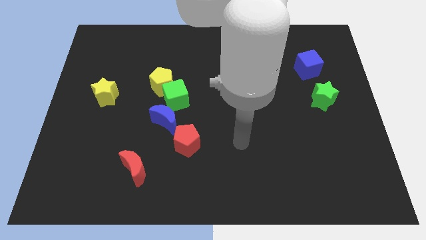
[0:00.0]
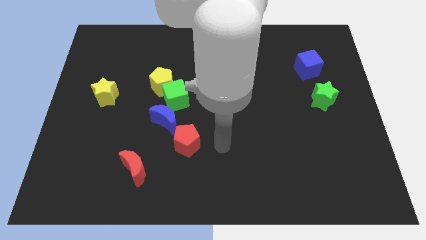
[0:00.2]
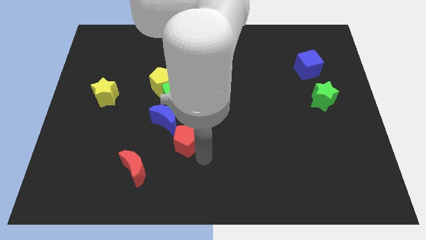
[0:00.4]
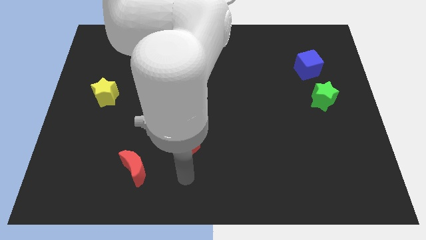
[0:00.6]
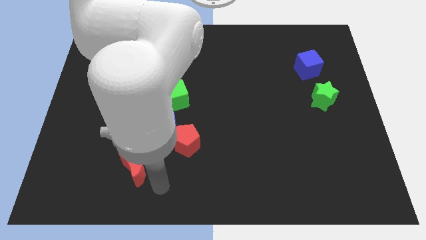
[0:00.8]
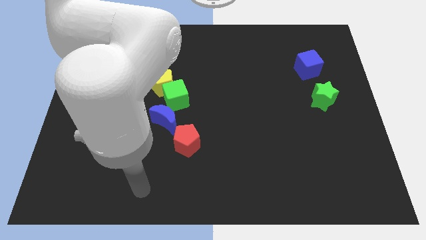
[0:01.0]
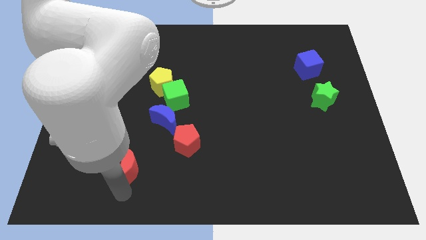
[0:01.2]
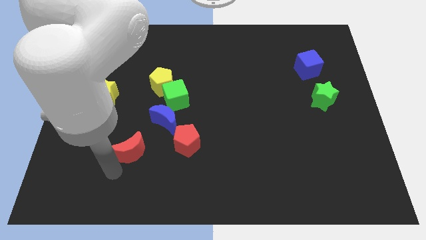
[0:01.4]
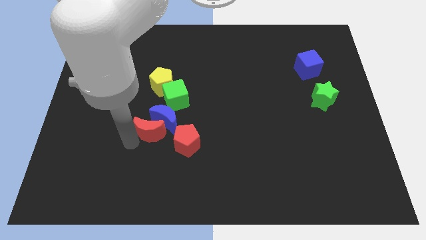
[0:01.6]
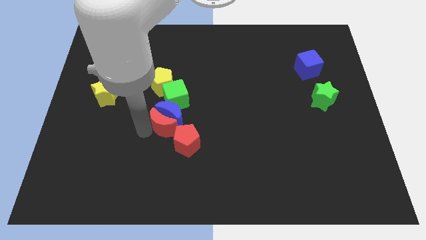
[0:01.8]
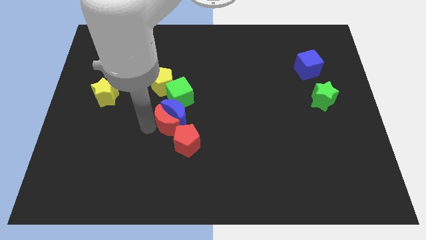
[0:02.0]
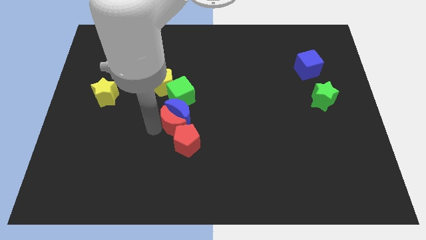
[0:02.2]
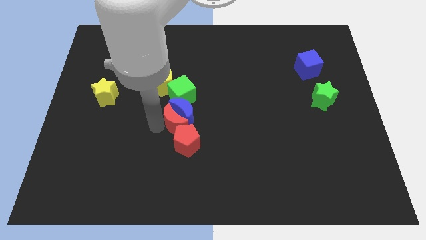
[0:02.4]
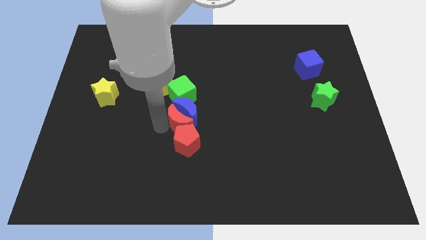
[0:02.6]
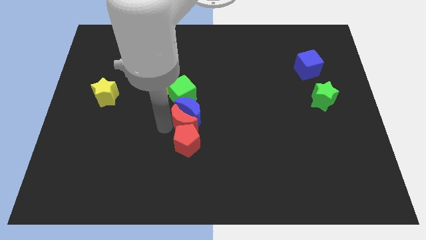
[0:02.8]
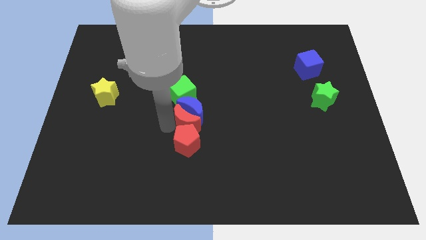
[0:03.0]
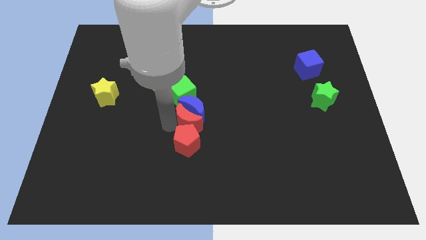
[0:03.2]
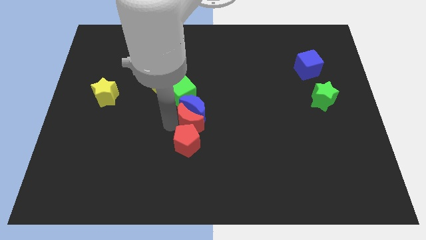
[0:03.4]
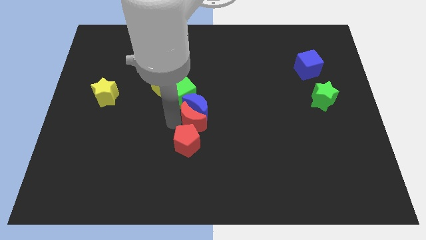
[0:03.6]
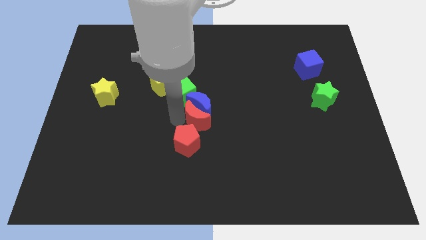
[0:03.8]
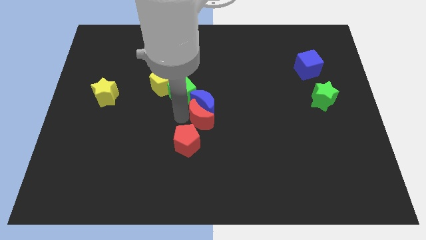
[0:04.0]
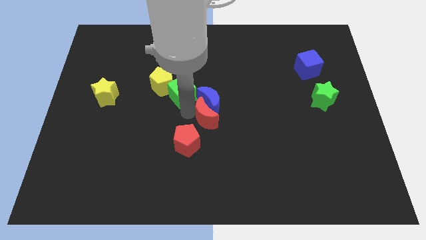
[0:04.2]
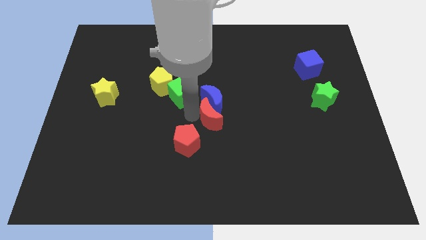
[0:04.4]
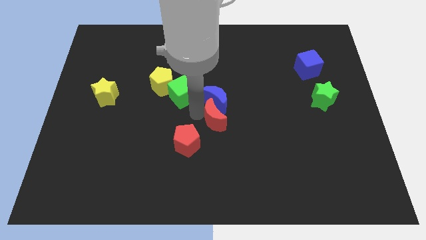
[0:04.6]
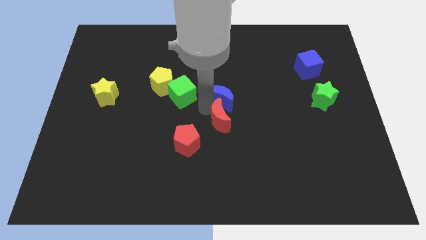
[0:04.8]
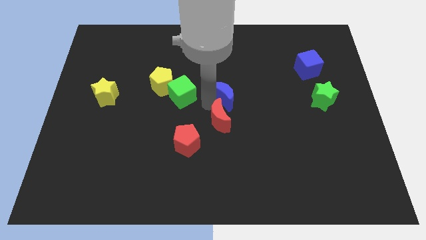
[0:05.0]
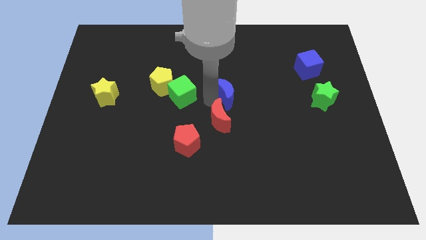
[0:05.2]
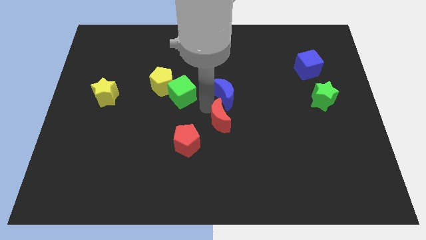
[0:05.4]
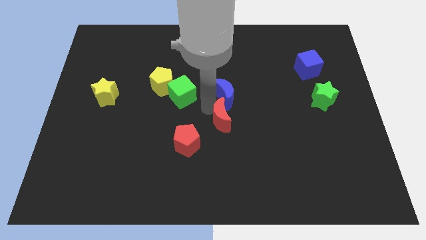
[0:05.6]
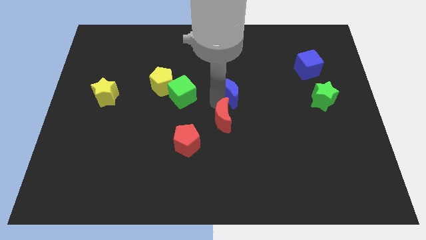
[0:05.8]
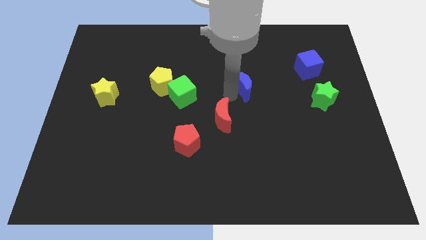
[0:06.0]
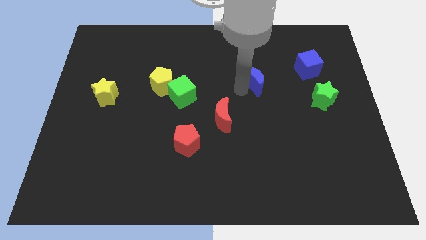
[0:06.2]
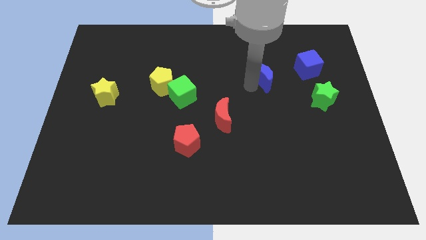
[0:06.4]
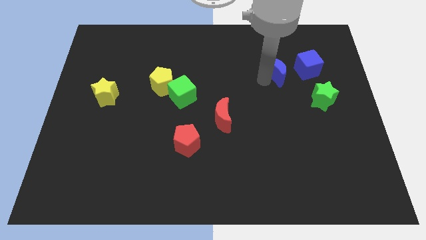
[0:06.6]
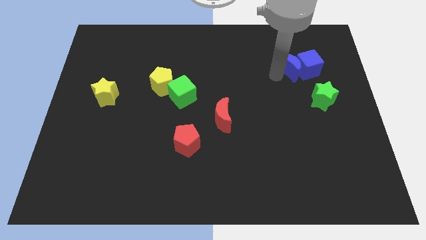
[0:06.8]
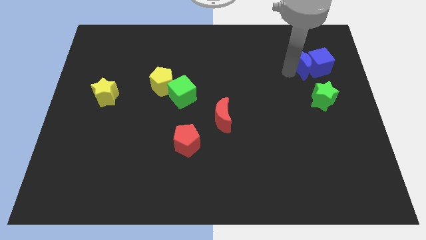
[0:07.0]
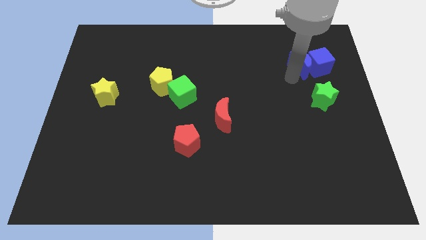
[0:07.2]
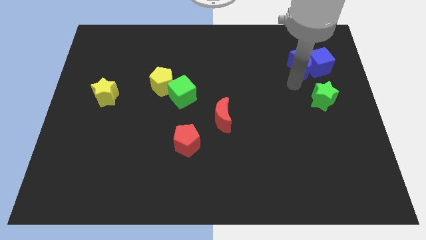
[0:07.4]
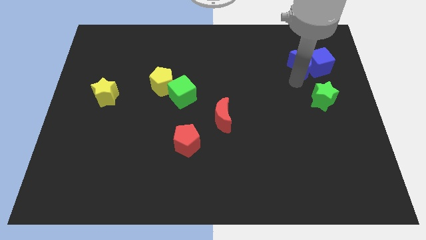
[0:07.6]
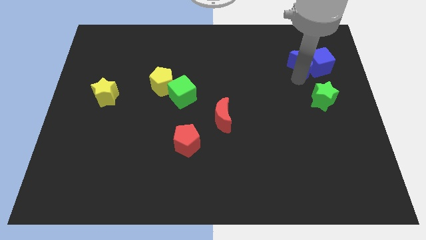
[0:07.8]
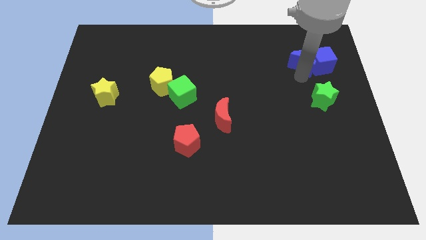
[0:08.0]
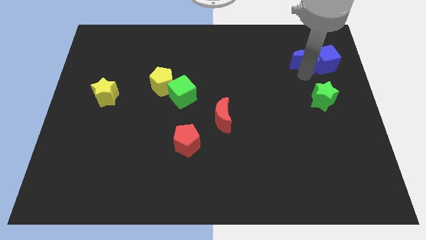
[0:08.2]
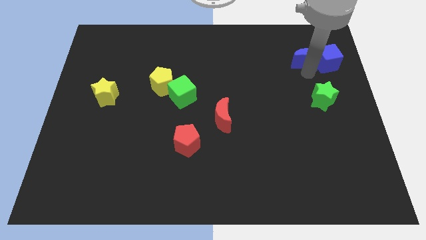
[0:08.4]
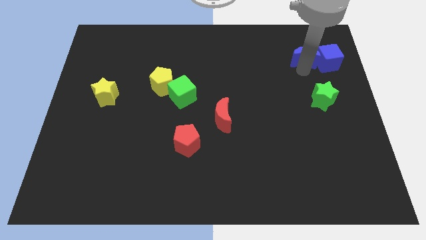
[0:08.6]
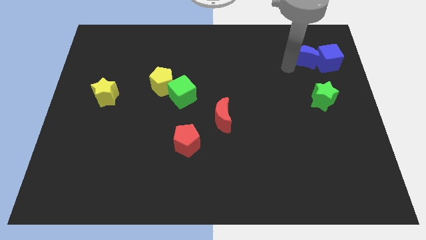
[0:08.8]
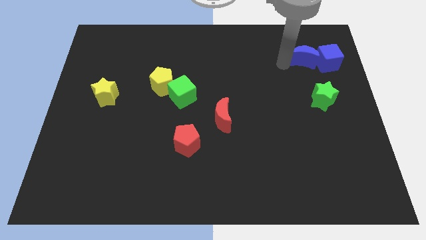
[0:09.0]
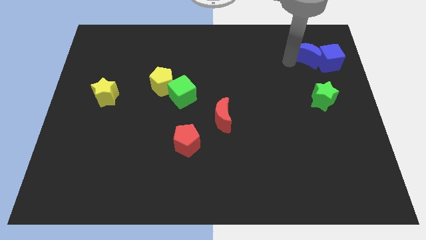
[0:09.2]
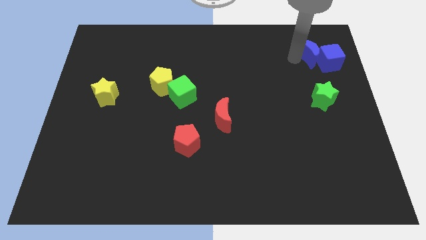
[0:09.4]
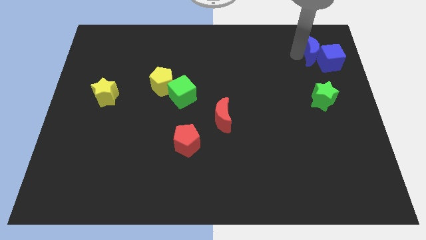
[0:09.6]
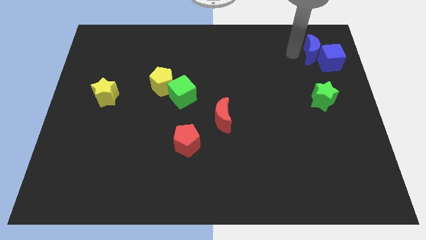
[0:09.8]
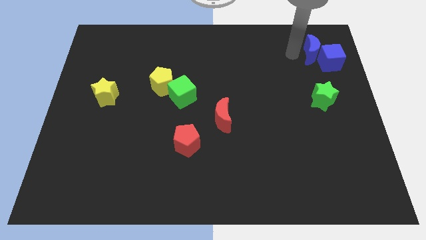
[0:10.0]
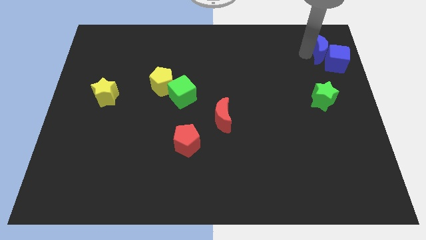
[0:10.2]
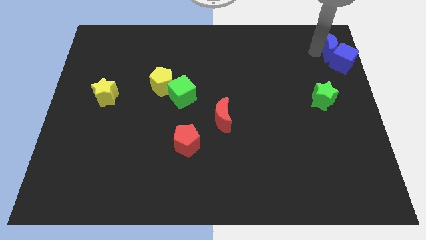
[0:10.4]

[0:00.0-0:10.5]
put the blue moon to the top right corner
